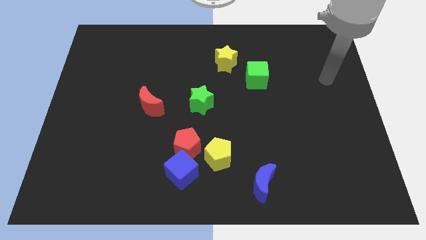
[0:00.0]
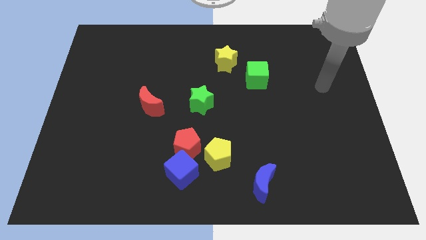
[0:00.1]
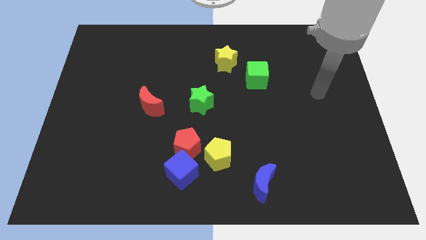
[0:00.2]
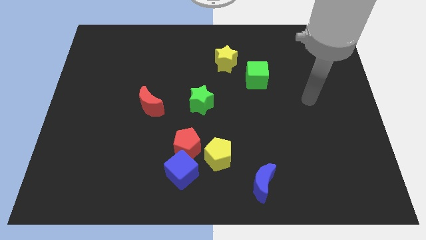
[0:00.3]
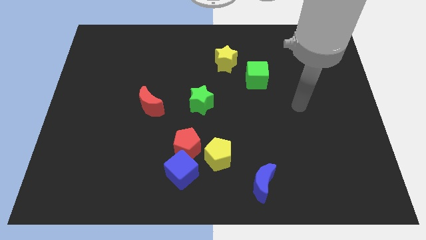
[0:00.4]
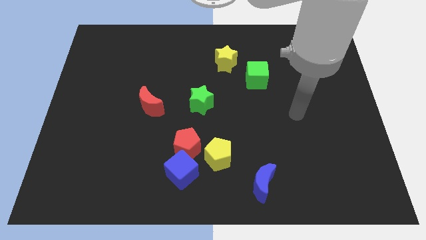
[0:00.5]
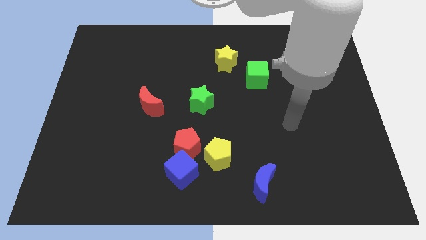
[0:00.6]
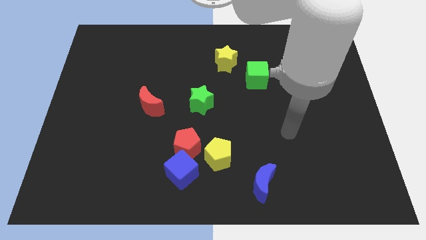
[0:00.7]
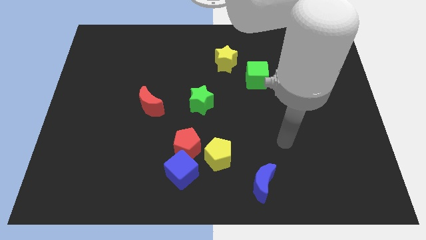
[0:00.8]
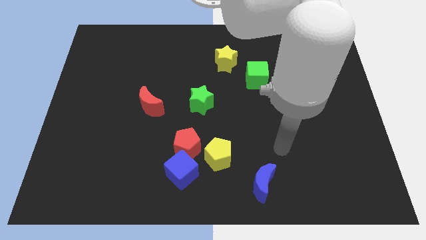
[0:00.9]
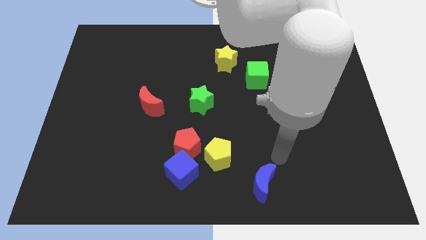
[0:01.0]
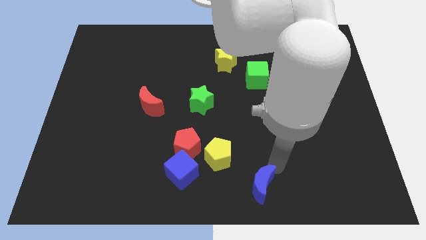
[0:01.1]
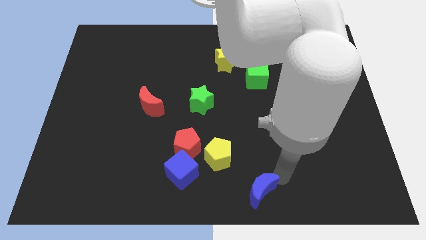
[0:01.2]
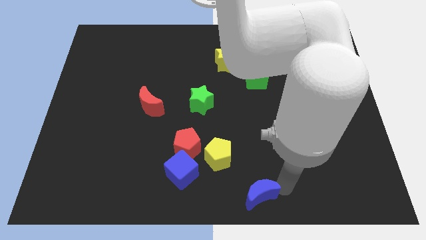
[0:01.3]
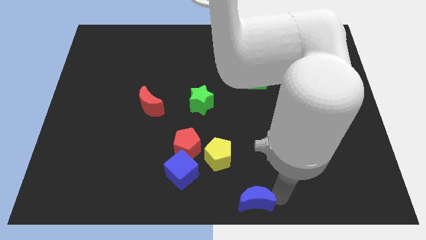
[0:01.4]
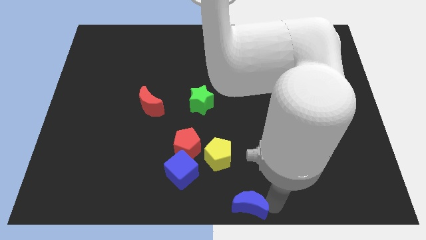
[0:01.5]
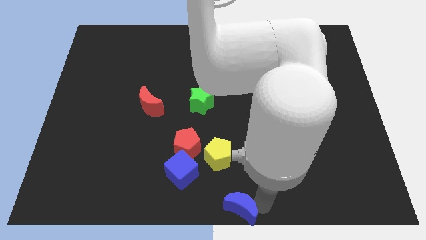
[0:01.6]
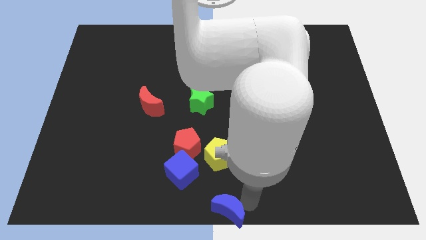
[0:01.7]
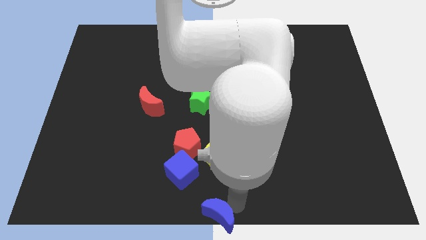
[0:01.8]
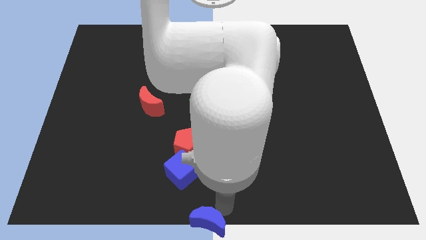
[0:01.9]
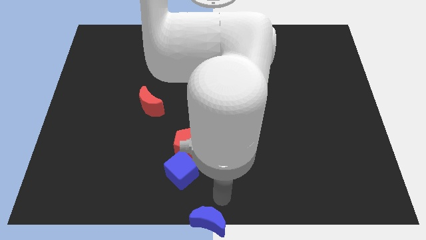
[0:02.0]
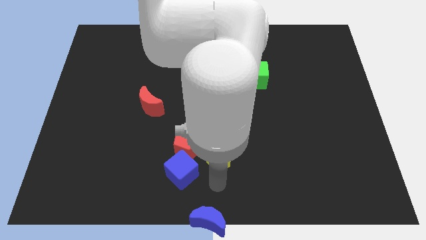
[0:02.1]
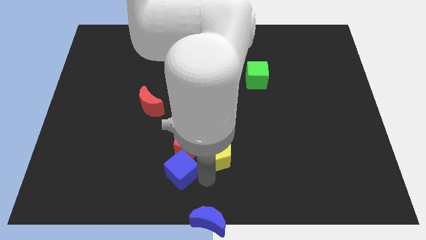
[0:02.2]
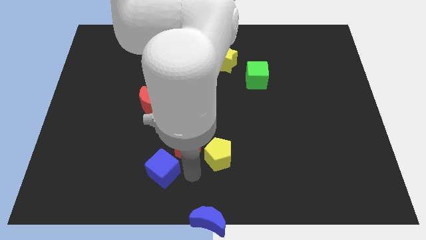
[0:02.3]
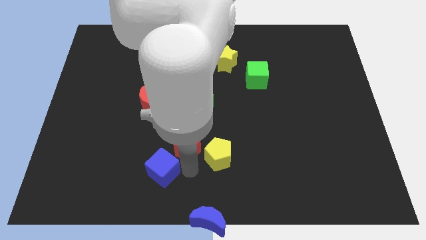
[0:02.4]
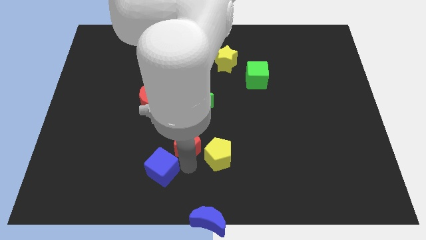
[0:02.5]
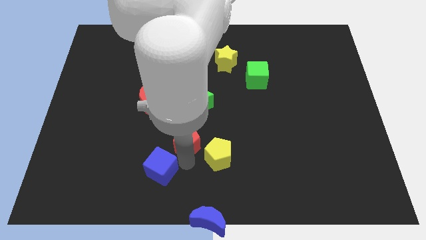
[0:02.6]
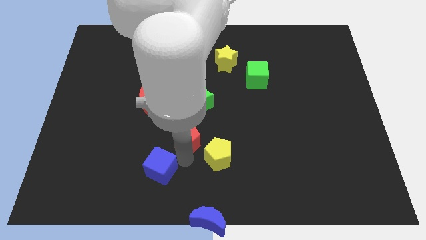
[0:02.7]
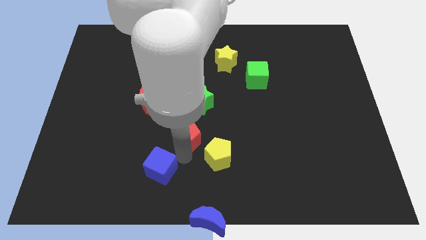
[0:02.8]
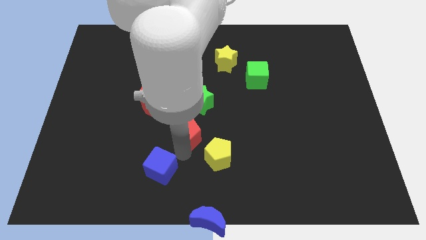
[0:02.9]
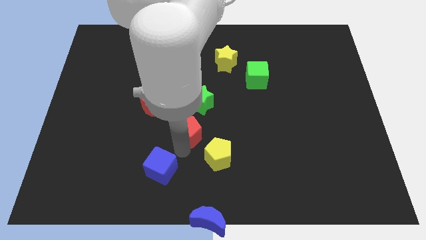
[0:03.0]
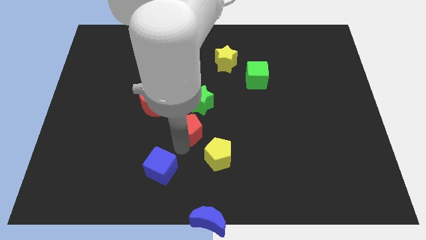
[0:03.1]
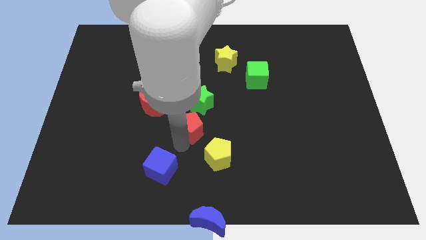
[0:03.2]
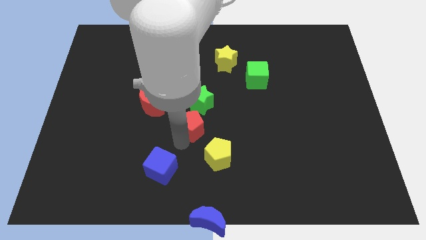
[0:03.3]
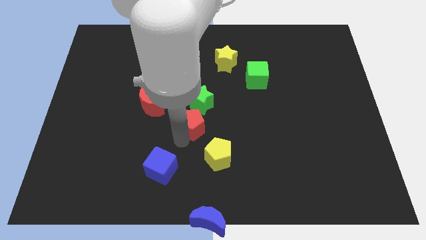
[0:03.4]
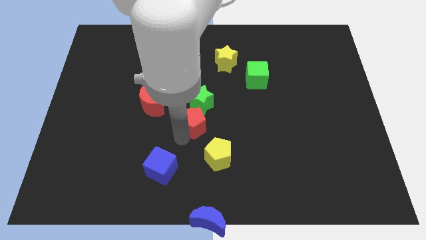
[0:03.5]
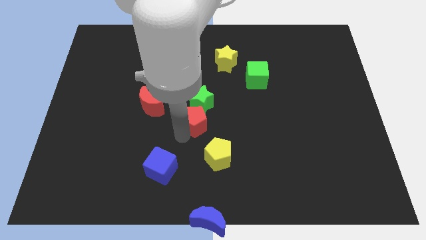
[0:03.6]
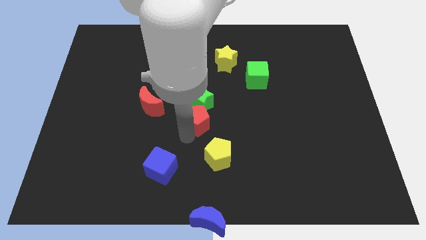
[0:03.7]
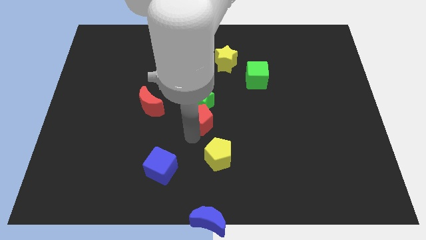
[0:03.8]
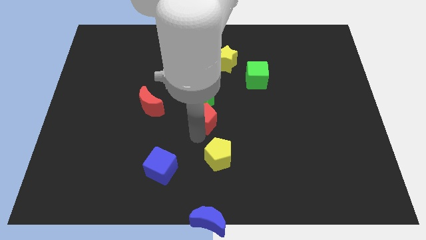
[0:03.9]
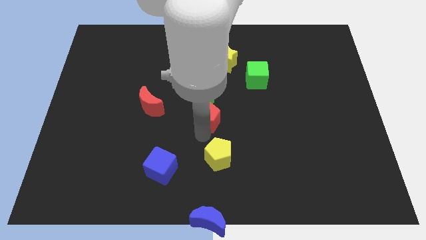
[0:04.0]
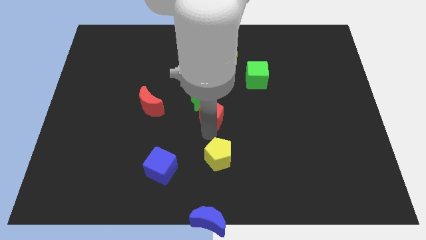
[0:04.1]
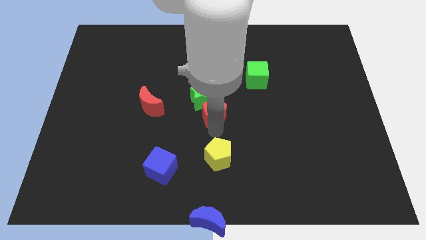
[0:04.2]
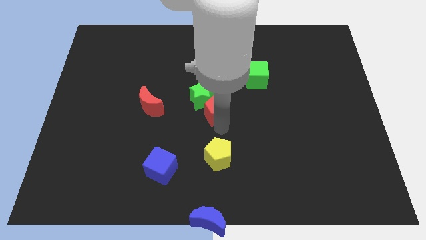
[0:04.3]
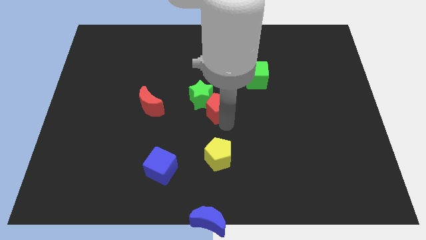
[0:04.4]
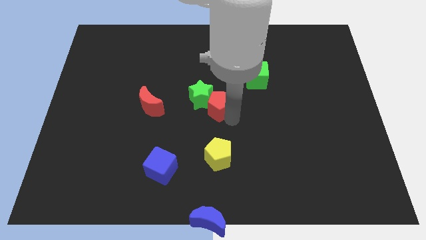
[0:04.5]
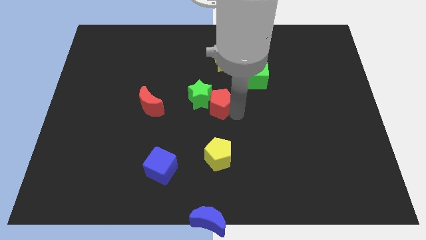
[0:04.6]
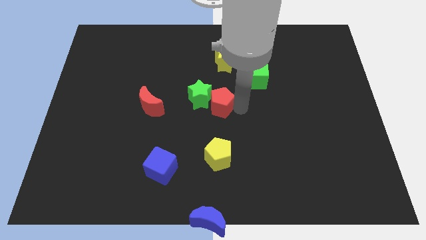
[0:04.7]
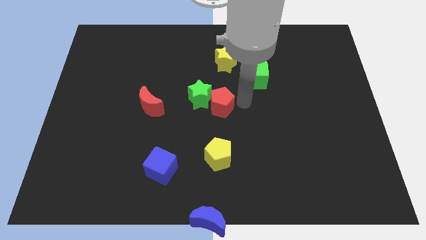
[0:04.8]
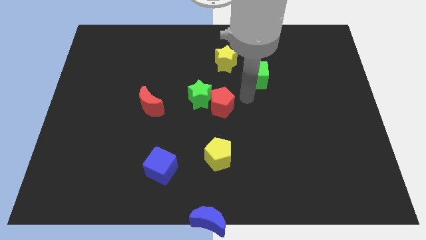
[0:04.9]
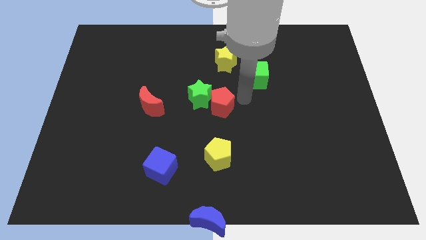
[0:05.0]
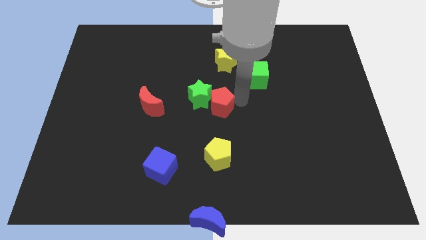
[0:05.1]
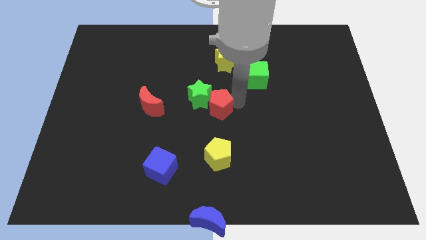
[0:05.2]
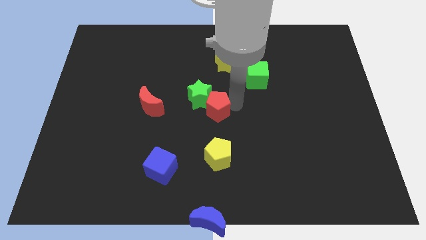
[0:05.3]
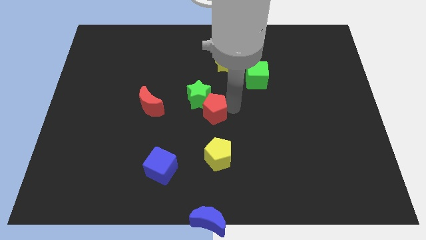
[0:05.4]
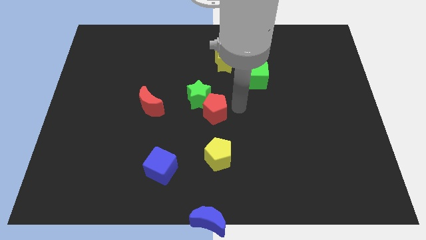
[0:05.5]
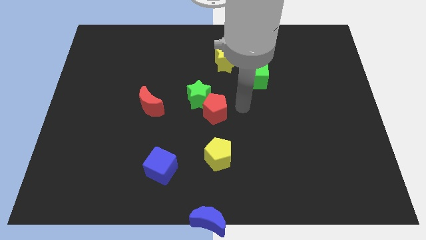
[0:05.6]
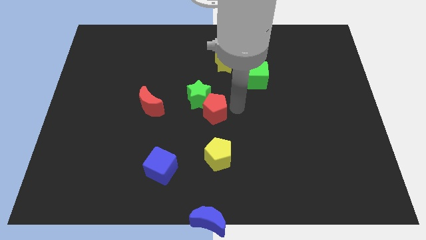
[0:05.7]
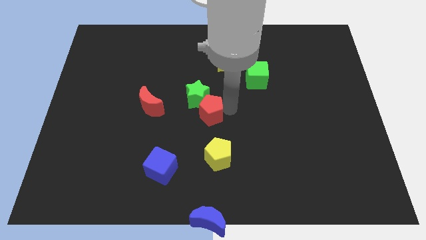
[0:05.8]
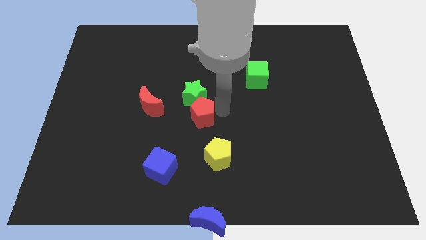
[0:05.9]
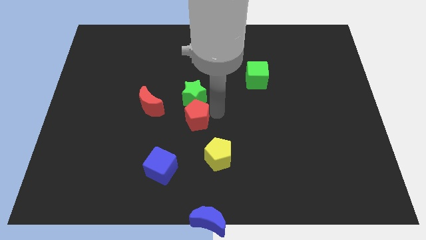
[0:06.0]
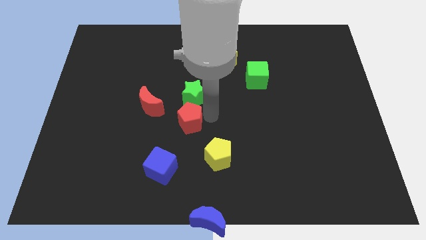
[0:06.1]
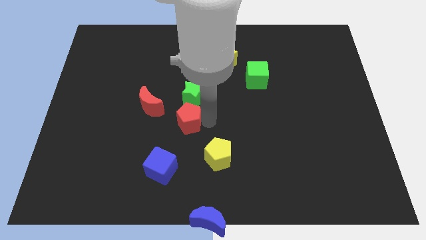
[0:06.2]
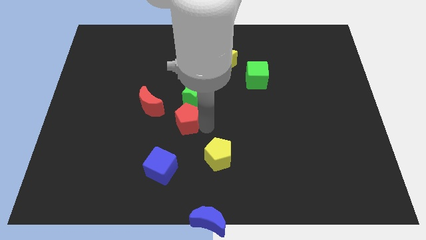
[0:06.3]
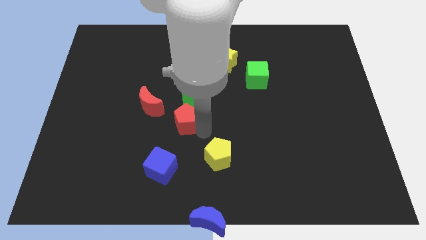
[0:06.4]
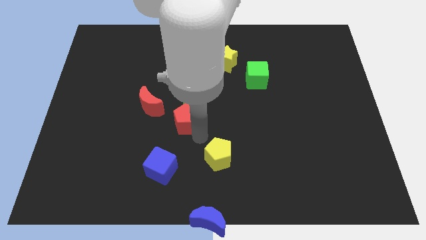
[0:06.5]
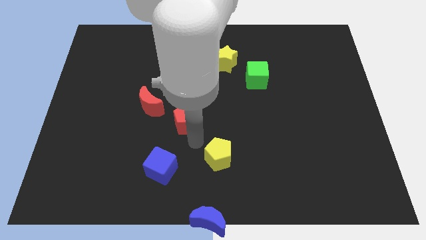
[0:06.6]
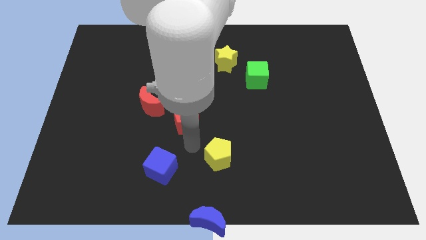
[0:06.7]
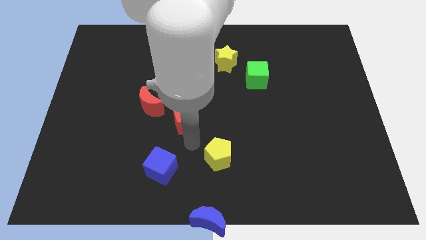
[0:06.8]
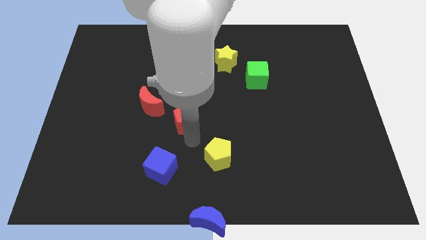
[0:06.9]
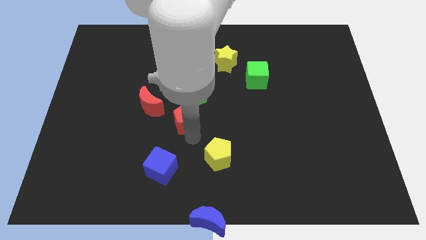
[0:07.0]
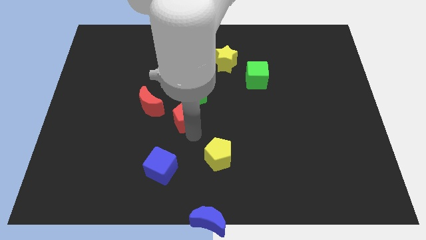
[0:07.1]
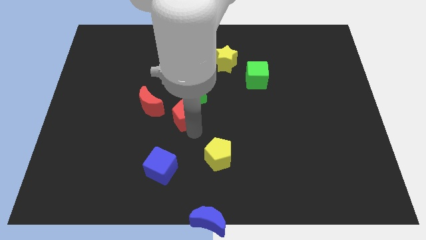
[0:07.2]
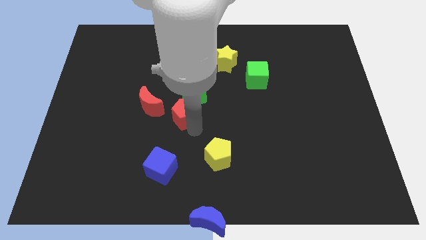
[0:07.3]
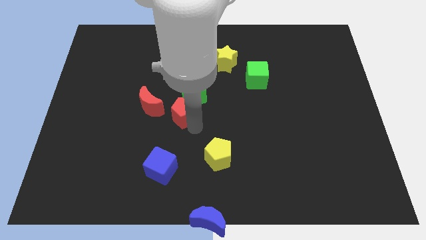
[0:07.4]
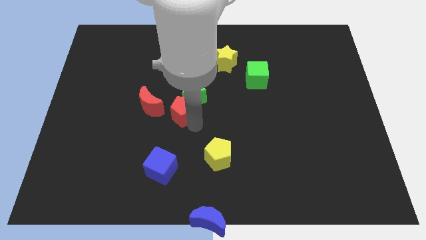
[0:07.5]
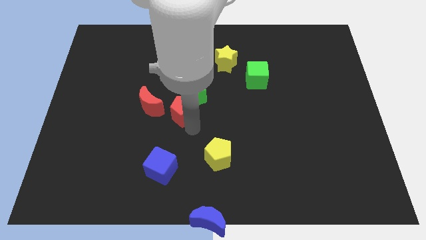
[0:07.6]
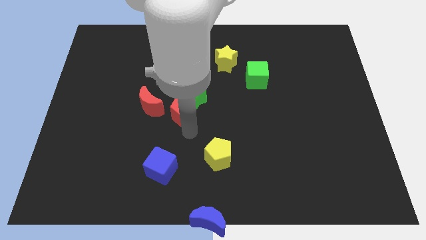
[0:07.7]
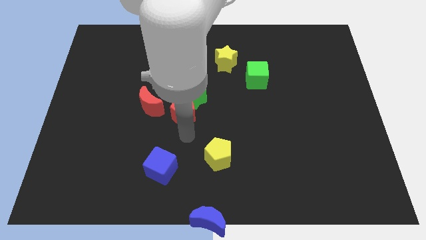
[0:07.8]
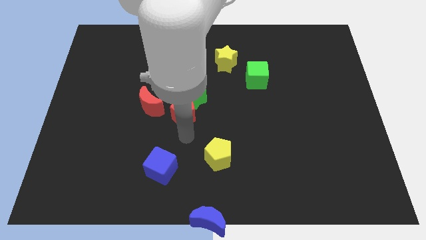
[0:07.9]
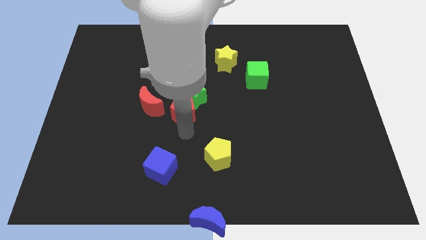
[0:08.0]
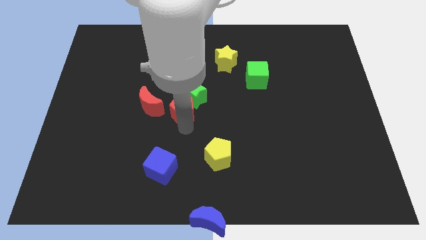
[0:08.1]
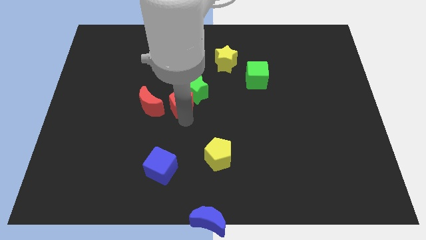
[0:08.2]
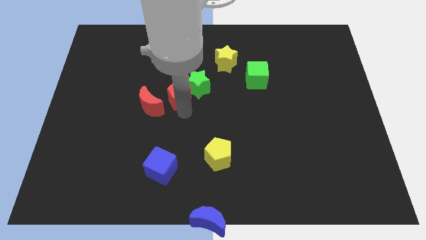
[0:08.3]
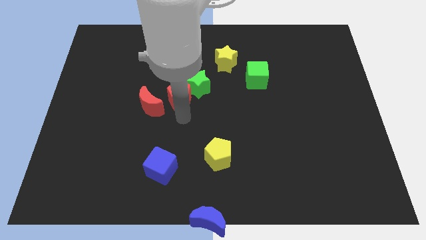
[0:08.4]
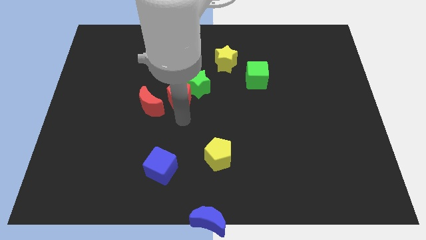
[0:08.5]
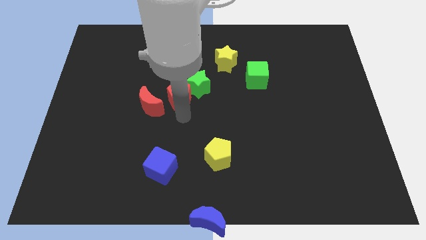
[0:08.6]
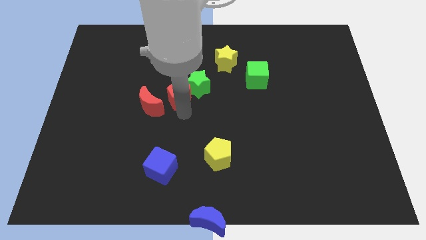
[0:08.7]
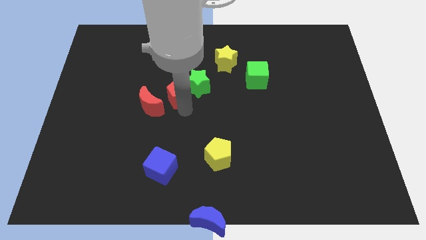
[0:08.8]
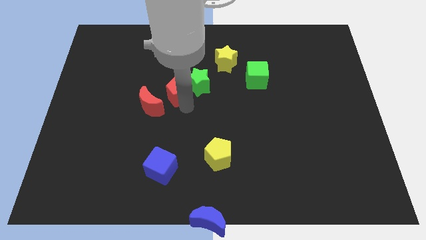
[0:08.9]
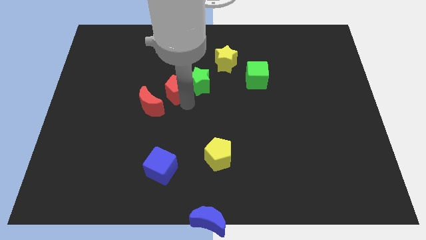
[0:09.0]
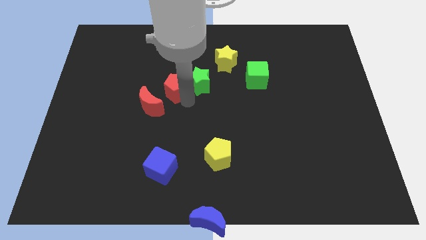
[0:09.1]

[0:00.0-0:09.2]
push the red pentagon diagonally up and to the left of the green star
